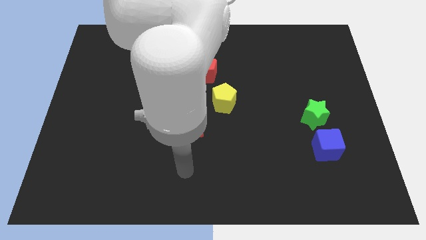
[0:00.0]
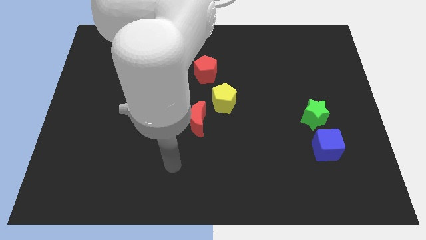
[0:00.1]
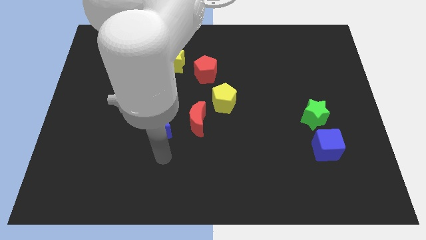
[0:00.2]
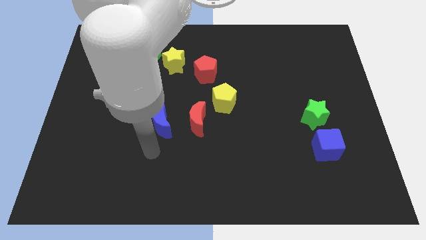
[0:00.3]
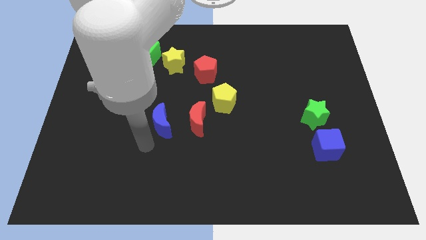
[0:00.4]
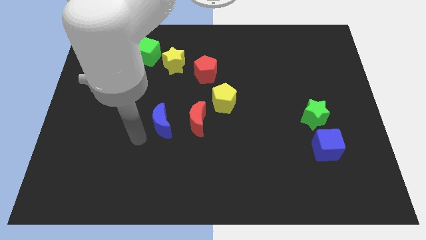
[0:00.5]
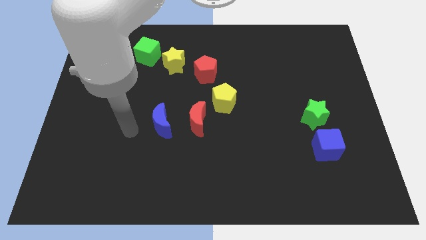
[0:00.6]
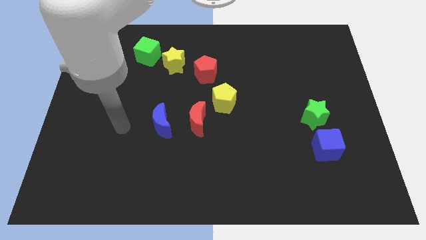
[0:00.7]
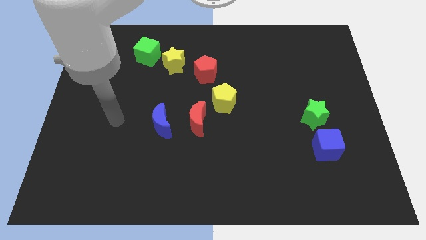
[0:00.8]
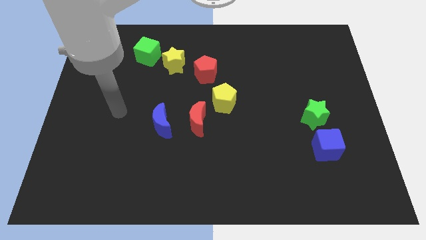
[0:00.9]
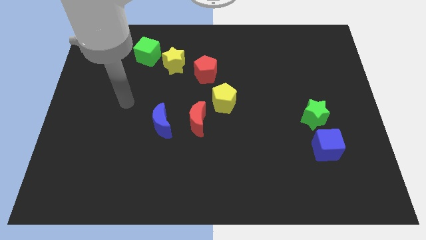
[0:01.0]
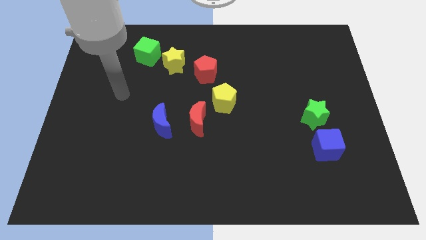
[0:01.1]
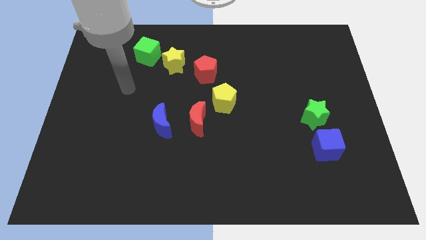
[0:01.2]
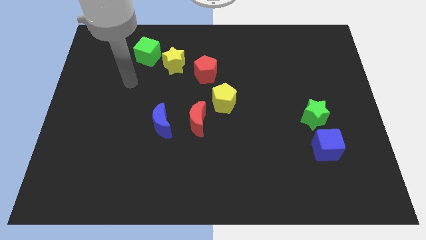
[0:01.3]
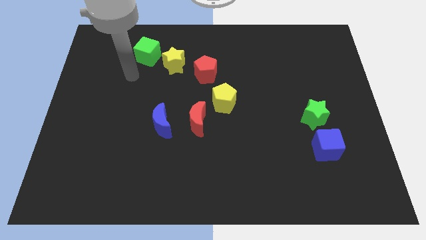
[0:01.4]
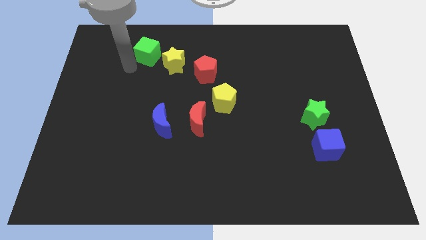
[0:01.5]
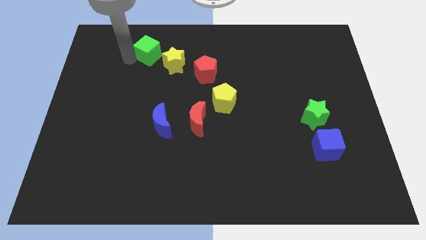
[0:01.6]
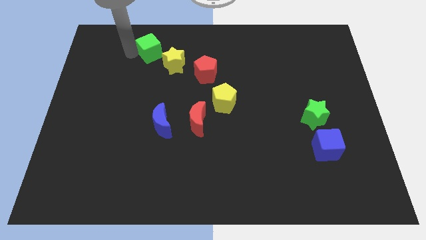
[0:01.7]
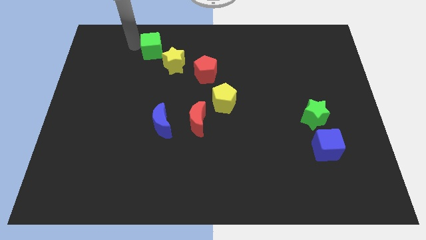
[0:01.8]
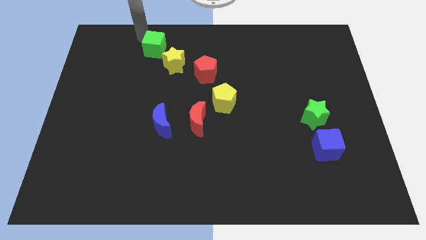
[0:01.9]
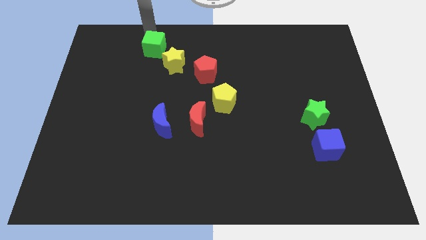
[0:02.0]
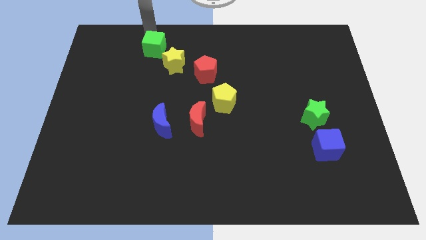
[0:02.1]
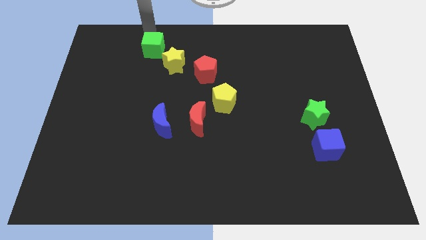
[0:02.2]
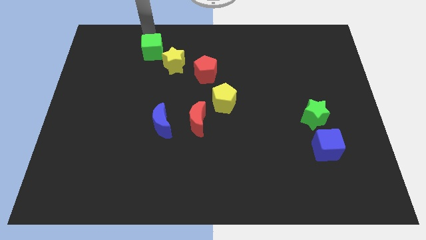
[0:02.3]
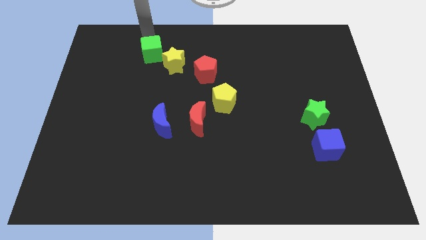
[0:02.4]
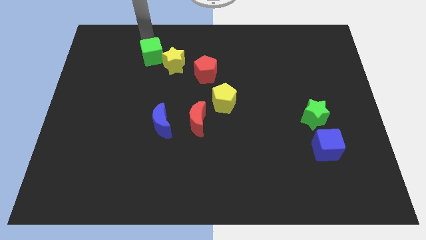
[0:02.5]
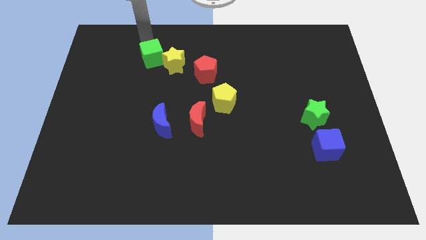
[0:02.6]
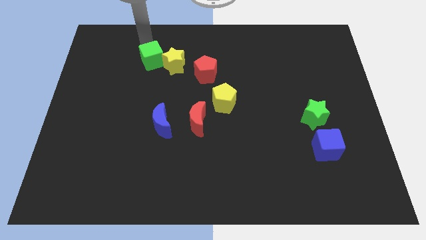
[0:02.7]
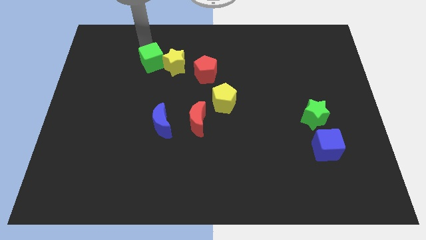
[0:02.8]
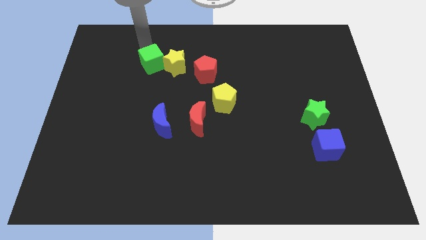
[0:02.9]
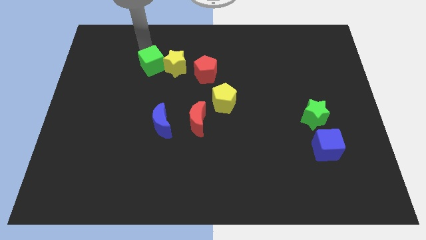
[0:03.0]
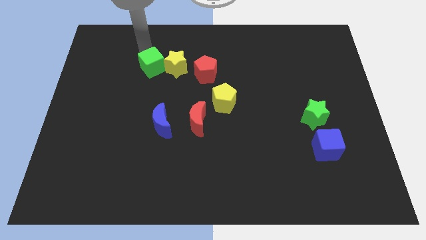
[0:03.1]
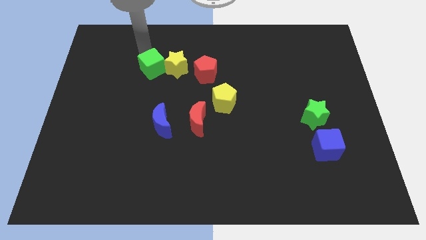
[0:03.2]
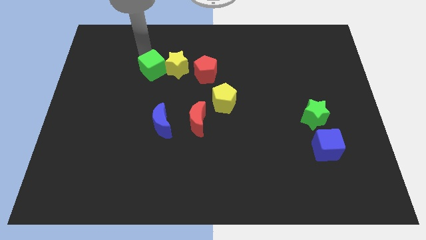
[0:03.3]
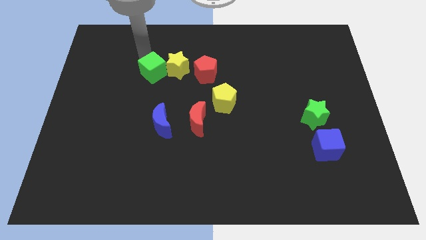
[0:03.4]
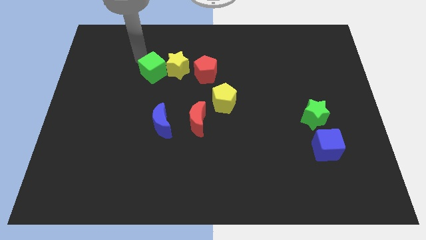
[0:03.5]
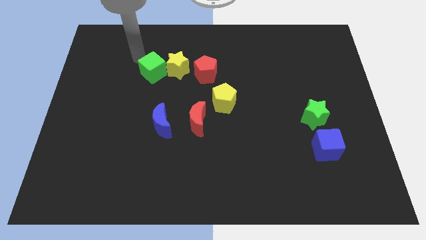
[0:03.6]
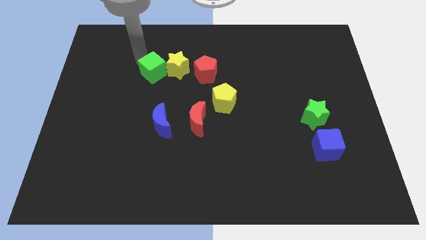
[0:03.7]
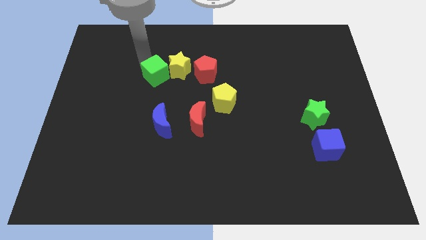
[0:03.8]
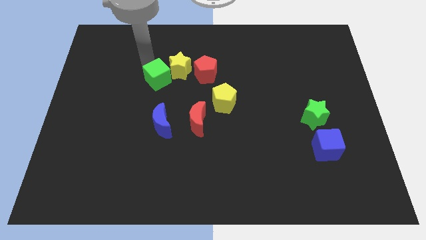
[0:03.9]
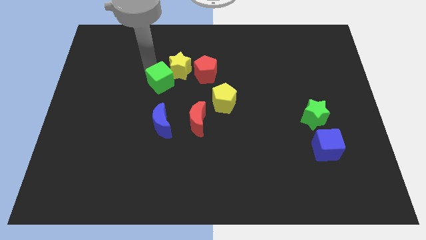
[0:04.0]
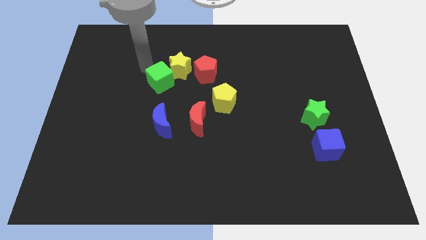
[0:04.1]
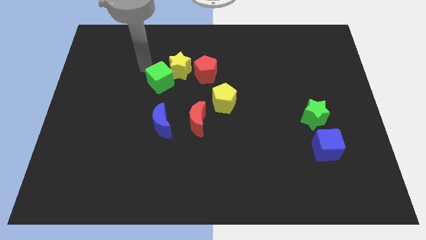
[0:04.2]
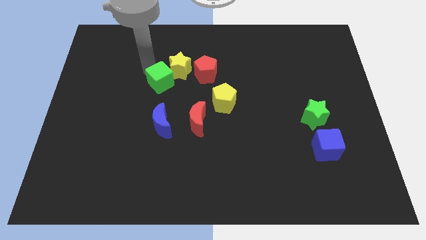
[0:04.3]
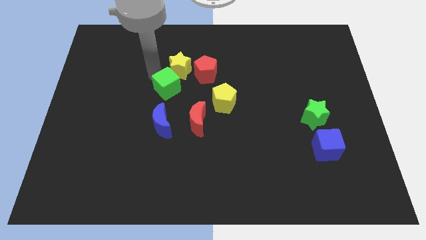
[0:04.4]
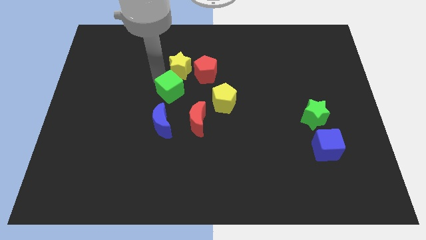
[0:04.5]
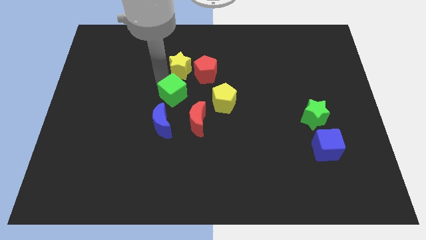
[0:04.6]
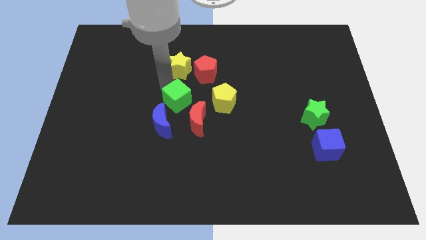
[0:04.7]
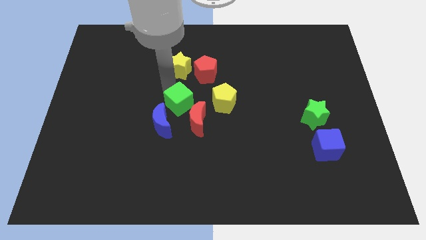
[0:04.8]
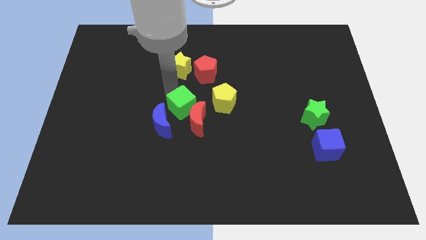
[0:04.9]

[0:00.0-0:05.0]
move the green cube to the red moon

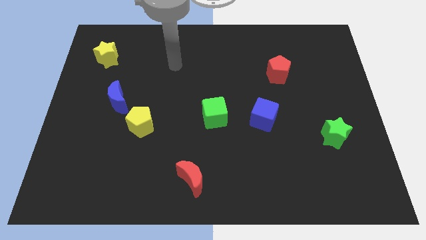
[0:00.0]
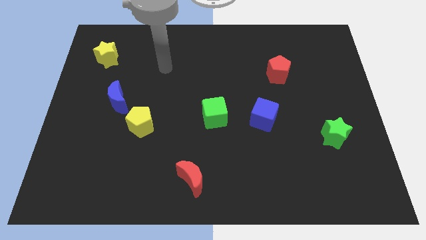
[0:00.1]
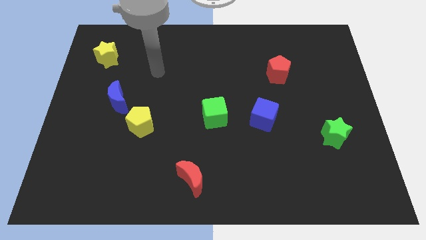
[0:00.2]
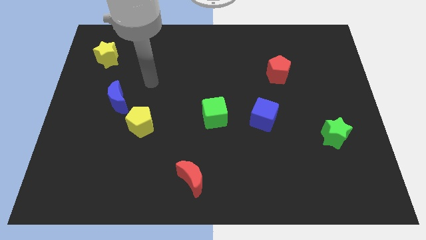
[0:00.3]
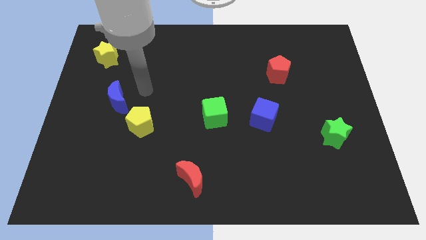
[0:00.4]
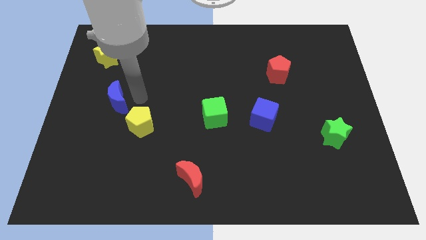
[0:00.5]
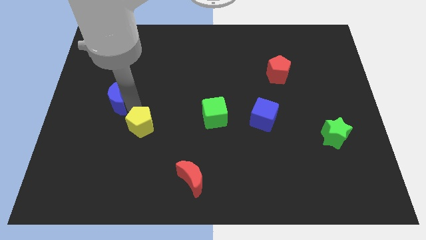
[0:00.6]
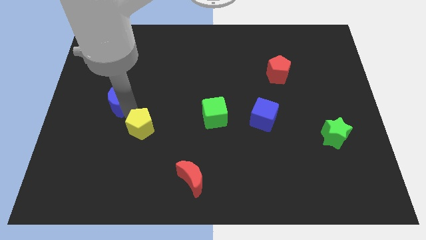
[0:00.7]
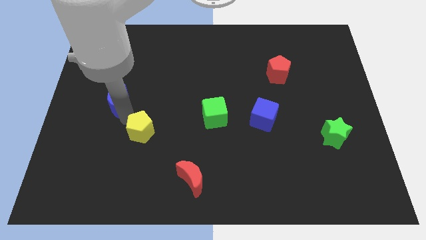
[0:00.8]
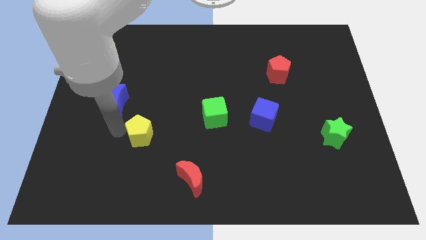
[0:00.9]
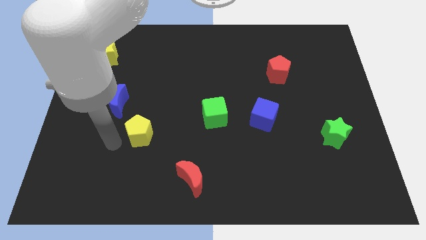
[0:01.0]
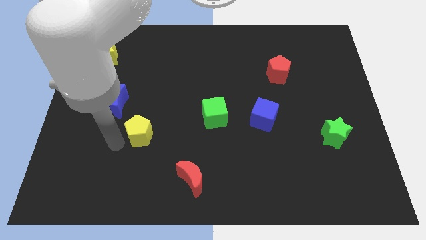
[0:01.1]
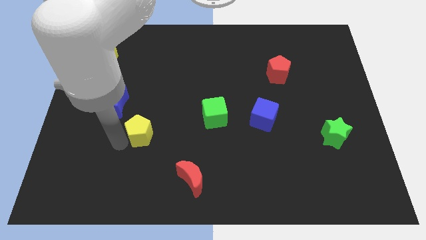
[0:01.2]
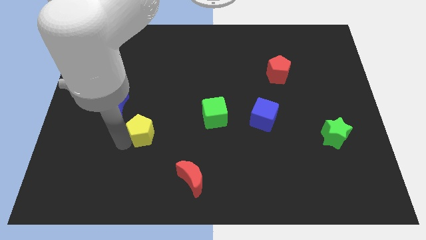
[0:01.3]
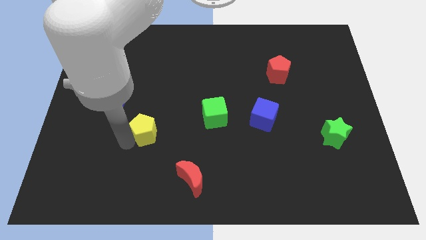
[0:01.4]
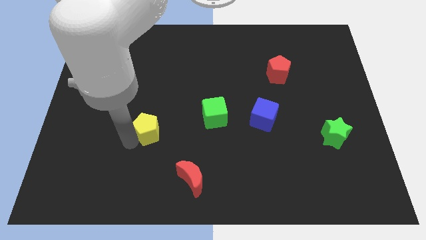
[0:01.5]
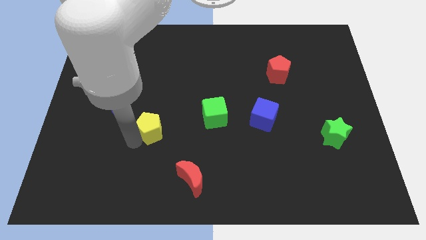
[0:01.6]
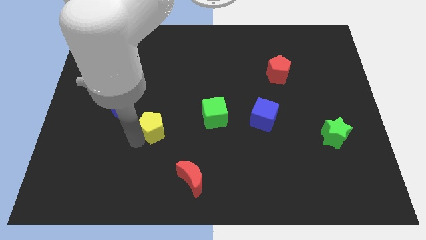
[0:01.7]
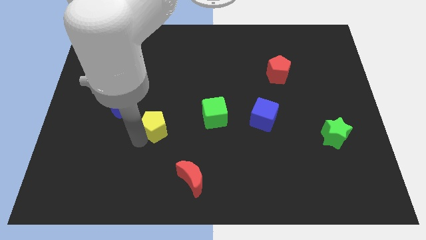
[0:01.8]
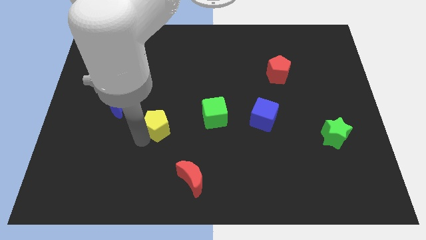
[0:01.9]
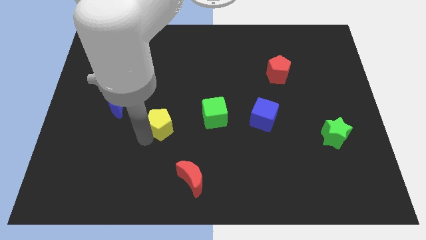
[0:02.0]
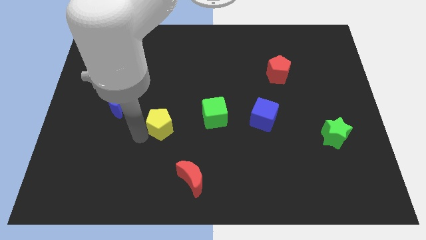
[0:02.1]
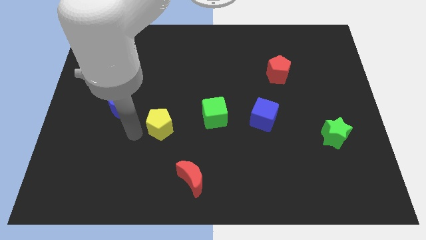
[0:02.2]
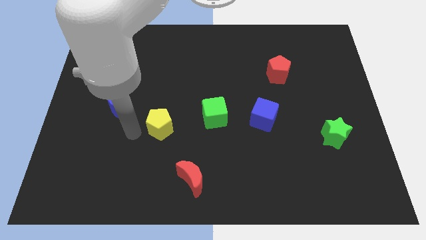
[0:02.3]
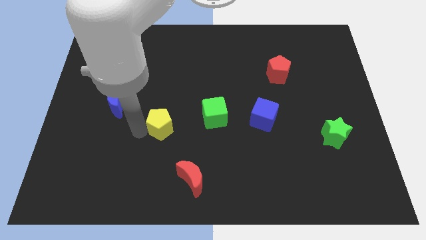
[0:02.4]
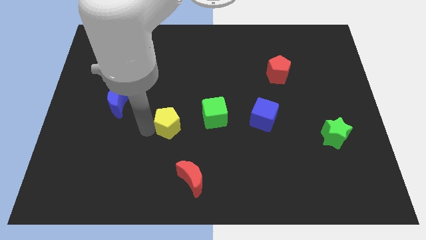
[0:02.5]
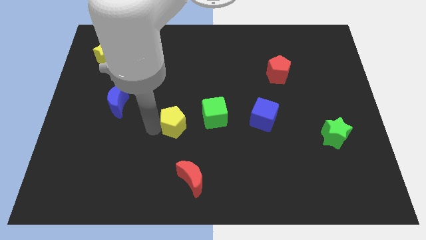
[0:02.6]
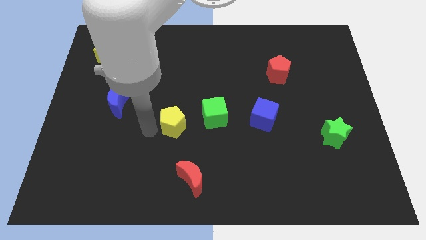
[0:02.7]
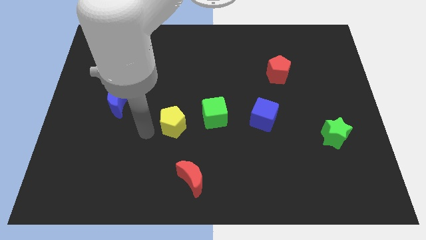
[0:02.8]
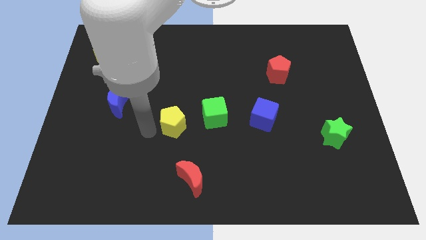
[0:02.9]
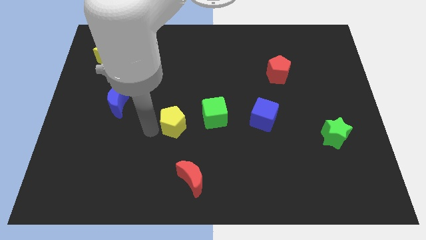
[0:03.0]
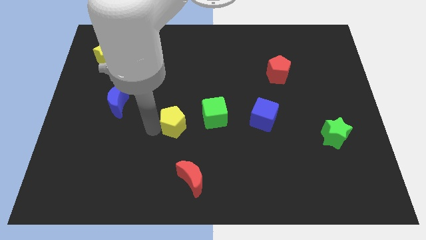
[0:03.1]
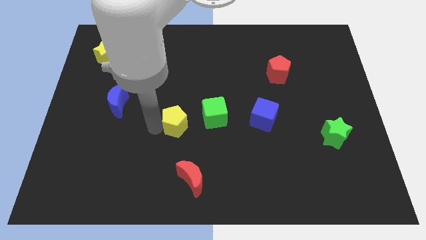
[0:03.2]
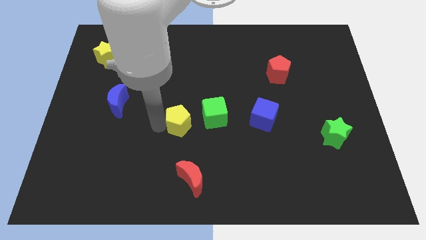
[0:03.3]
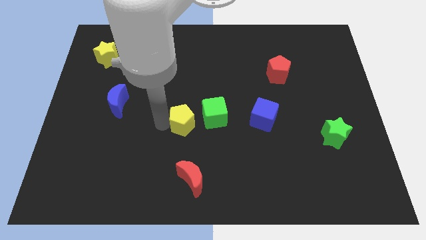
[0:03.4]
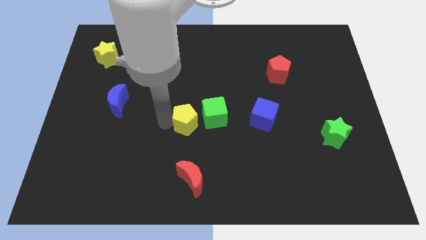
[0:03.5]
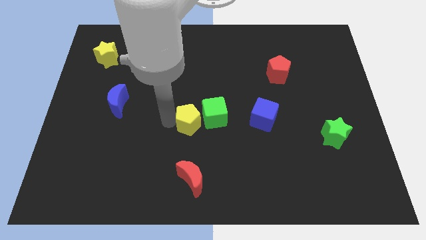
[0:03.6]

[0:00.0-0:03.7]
put the yellow pentagon towards the green cube
